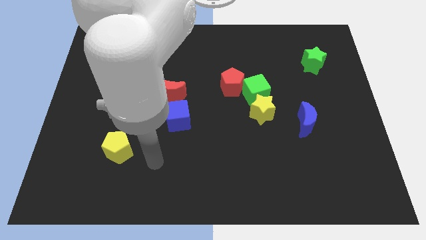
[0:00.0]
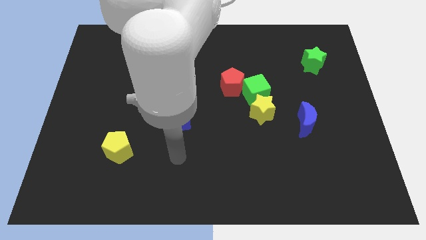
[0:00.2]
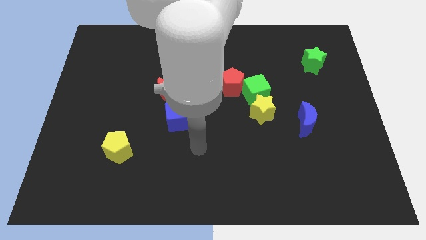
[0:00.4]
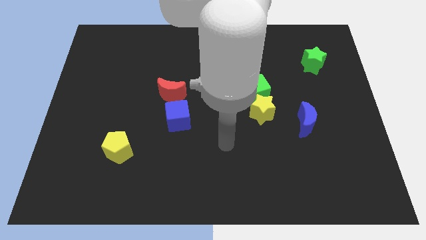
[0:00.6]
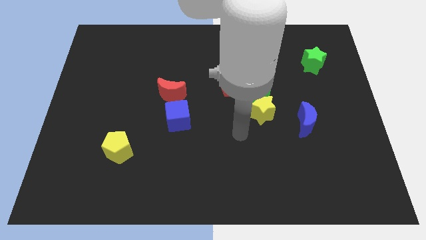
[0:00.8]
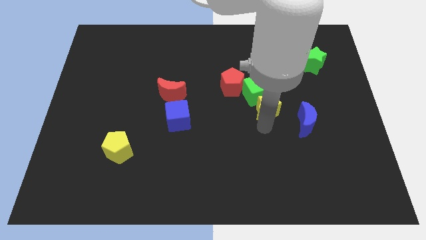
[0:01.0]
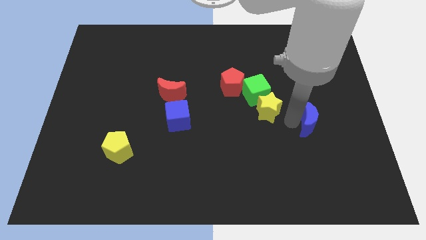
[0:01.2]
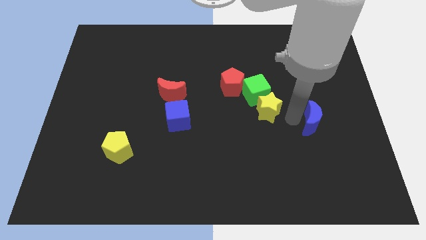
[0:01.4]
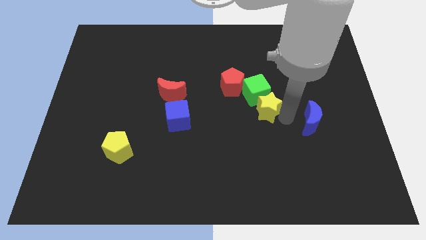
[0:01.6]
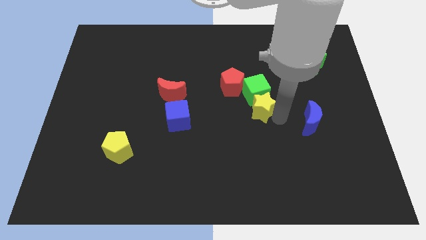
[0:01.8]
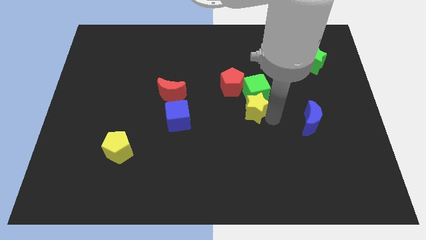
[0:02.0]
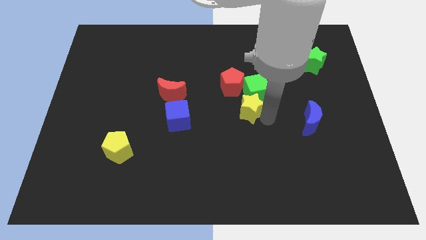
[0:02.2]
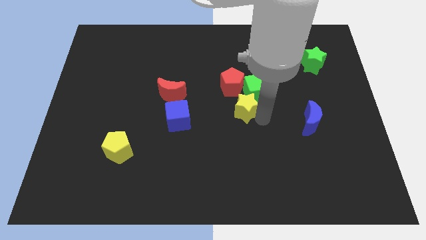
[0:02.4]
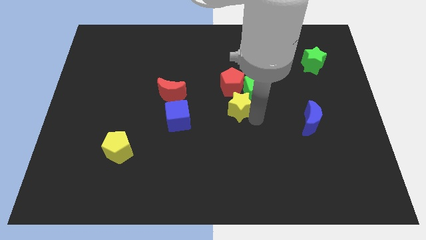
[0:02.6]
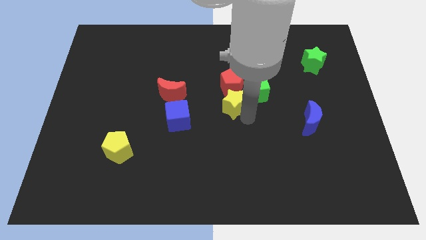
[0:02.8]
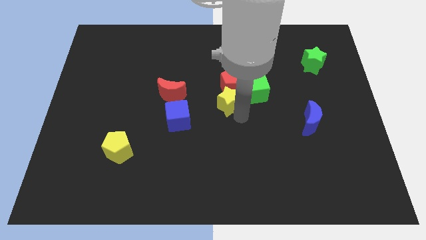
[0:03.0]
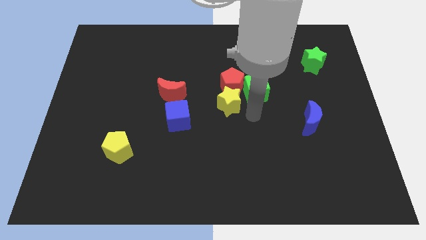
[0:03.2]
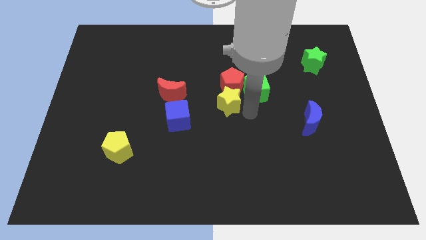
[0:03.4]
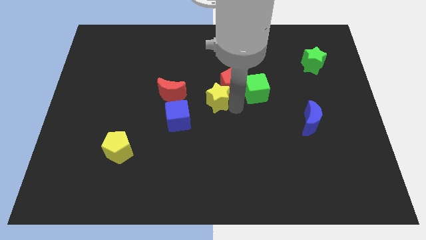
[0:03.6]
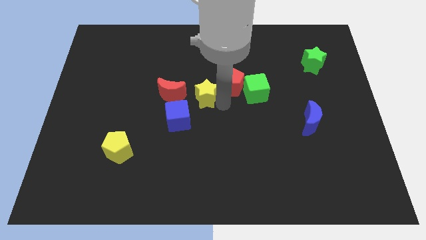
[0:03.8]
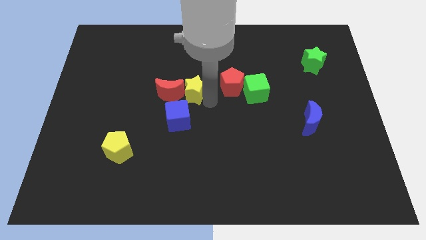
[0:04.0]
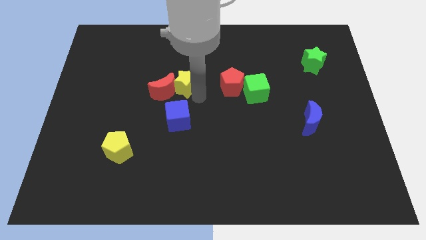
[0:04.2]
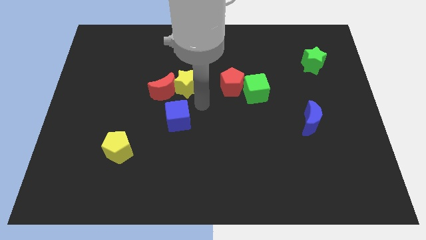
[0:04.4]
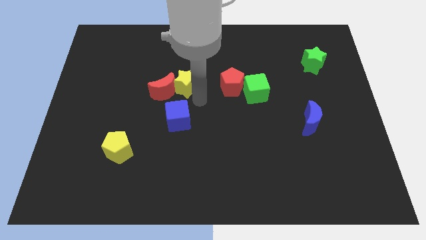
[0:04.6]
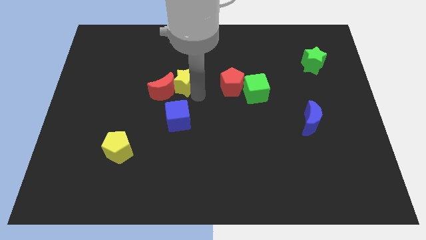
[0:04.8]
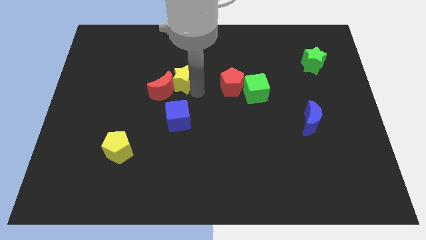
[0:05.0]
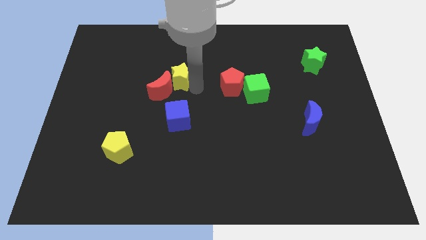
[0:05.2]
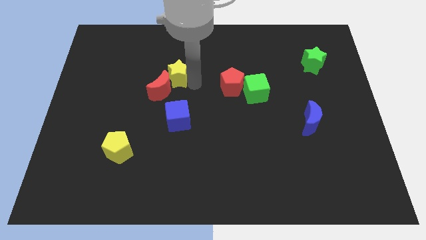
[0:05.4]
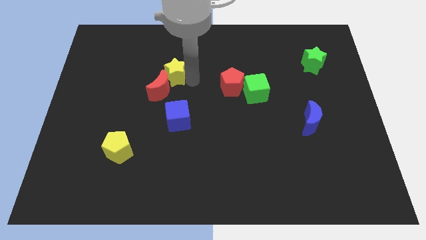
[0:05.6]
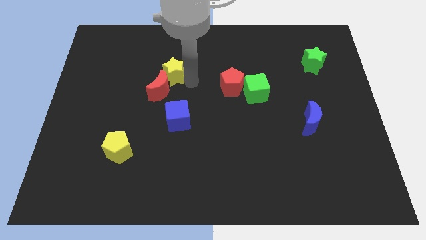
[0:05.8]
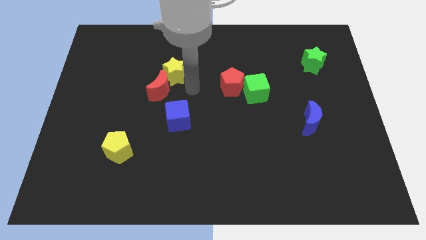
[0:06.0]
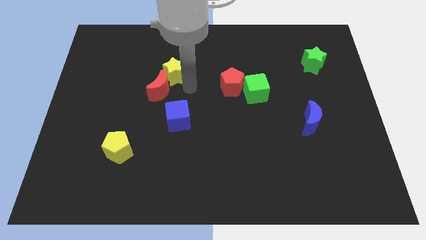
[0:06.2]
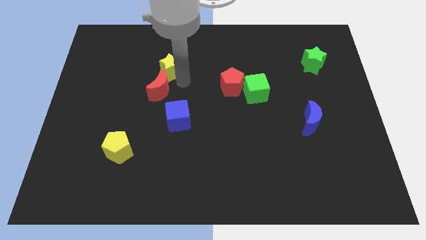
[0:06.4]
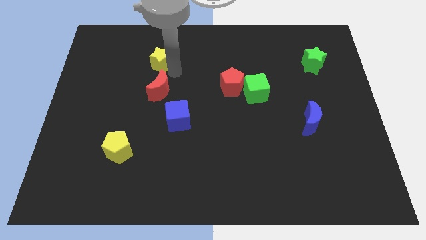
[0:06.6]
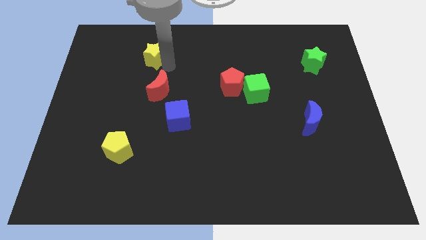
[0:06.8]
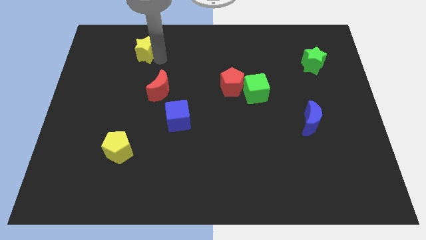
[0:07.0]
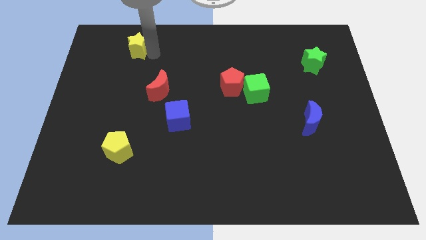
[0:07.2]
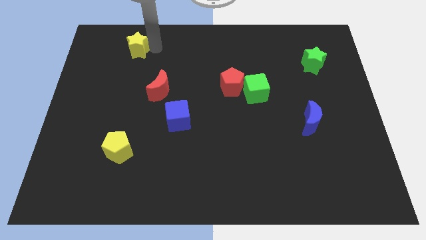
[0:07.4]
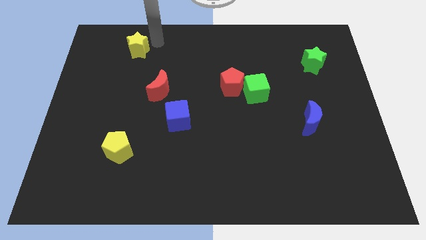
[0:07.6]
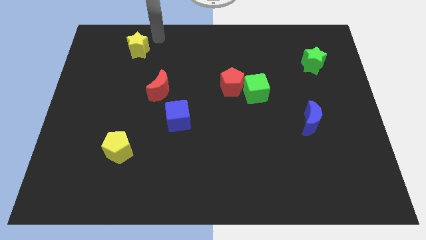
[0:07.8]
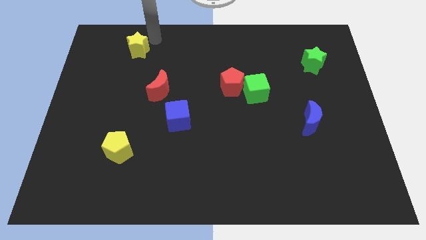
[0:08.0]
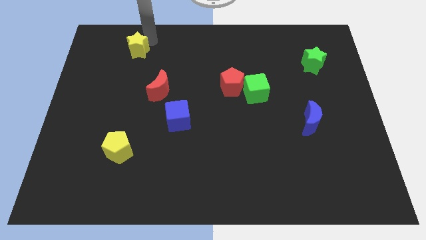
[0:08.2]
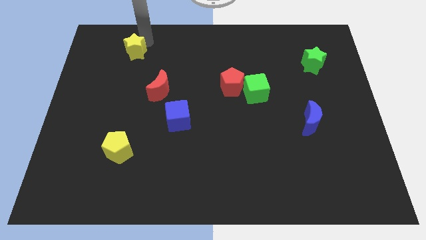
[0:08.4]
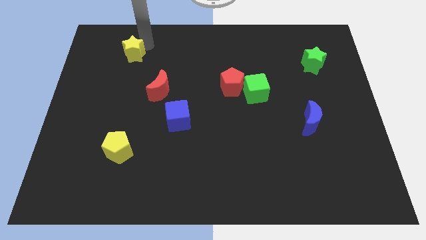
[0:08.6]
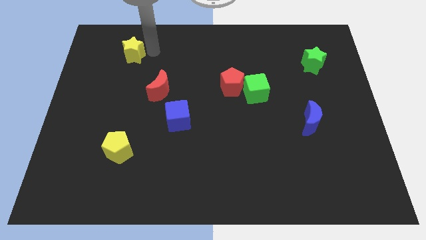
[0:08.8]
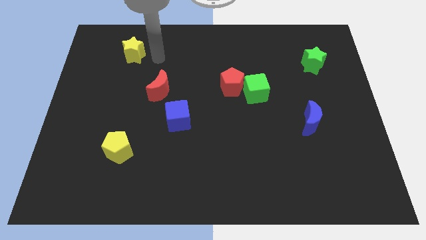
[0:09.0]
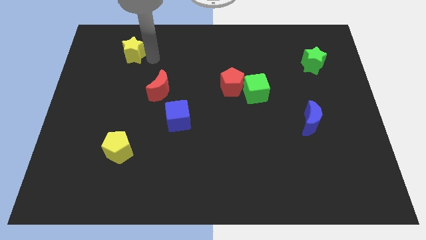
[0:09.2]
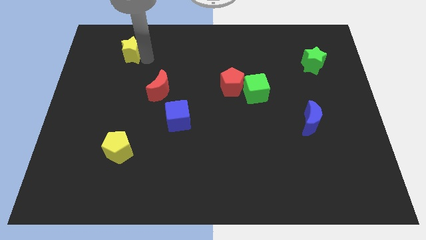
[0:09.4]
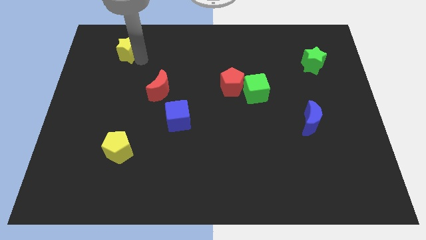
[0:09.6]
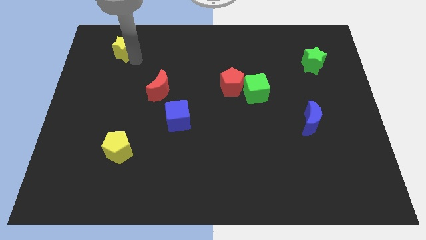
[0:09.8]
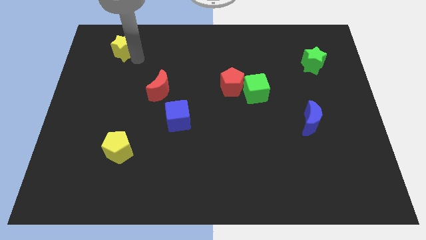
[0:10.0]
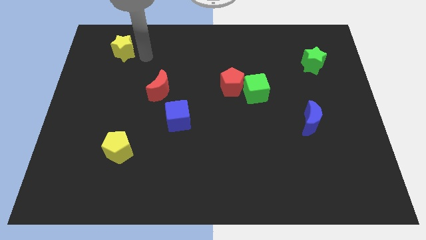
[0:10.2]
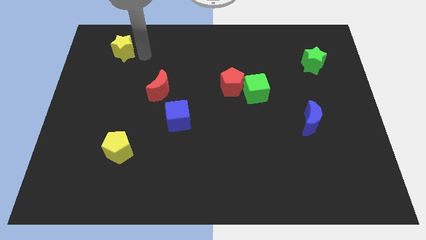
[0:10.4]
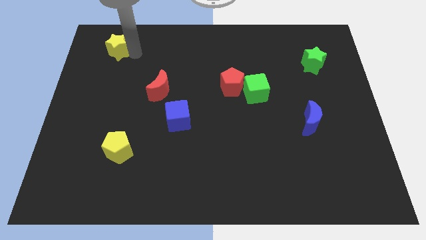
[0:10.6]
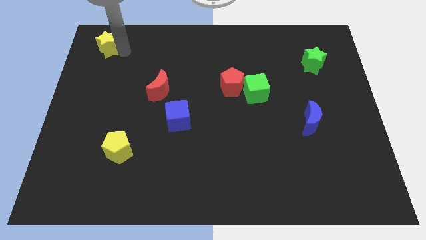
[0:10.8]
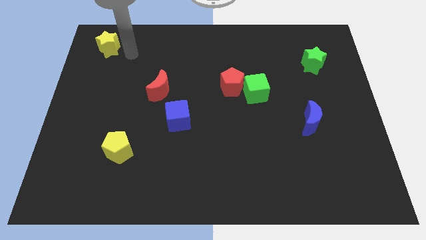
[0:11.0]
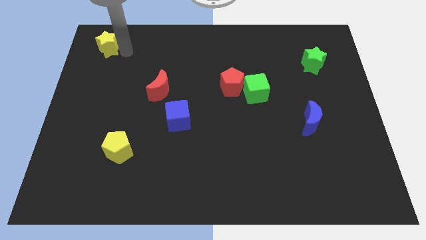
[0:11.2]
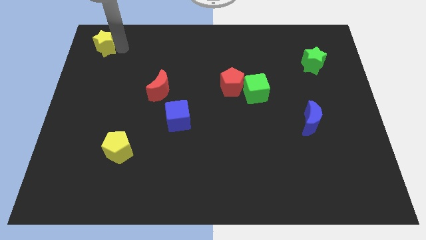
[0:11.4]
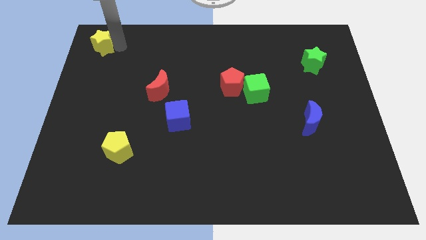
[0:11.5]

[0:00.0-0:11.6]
slide the yellow star to the upper left corner

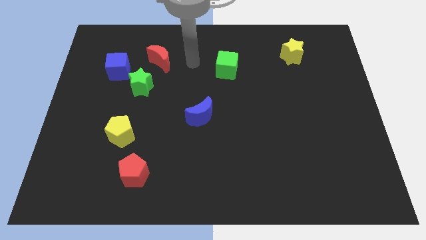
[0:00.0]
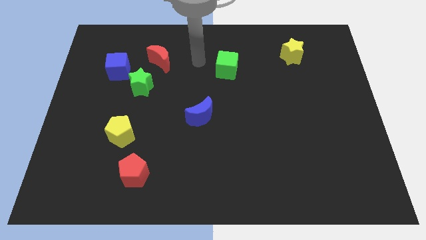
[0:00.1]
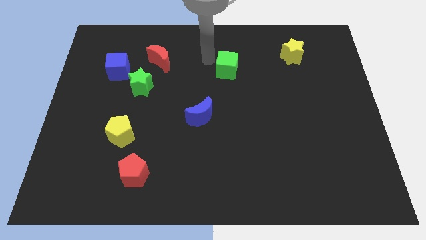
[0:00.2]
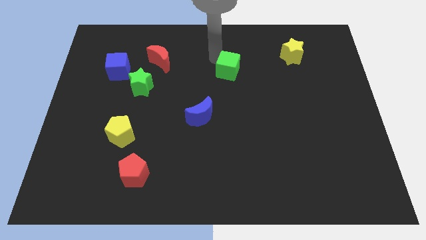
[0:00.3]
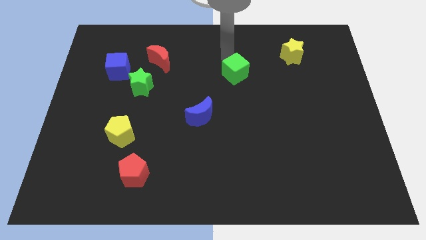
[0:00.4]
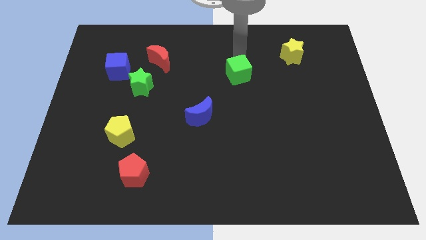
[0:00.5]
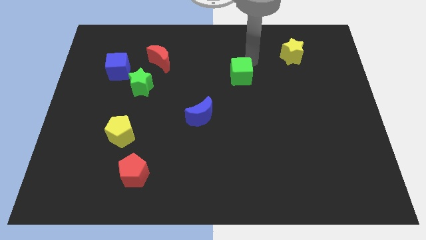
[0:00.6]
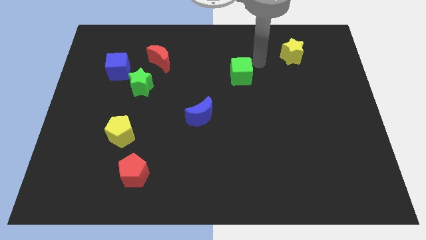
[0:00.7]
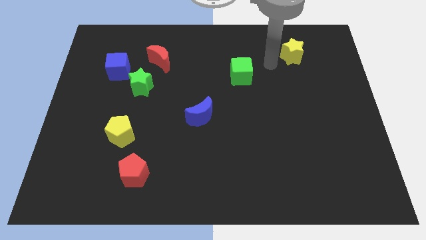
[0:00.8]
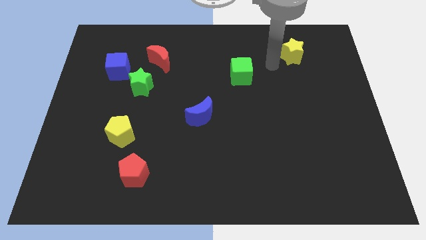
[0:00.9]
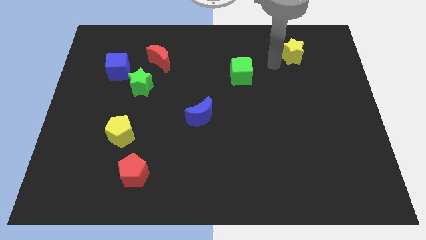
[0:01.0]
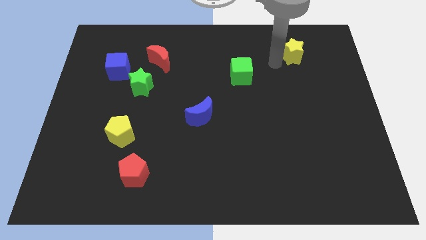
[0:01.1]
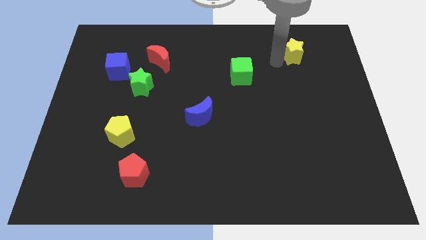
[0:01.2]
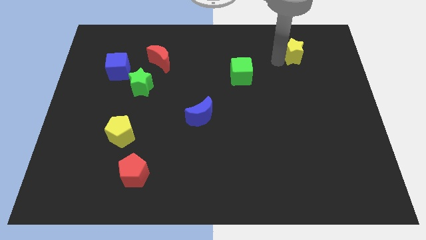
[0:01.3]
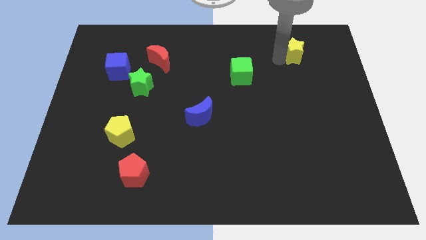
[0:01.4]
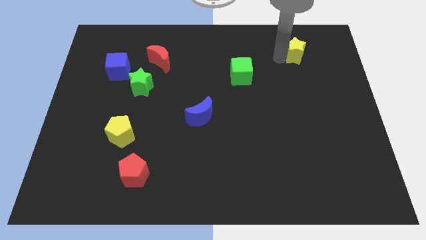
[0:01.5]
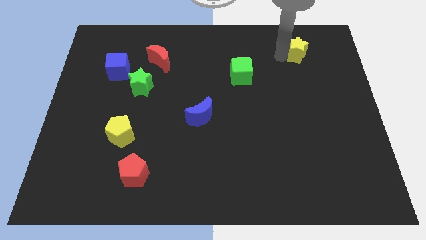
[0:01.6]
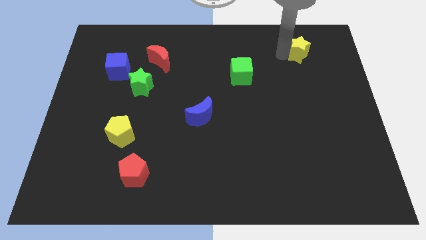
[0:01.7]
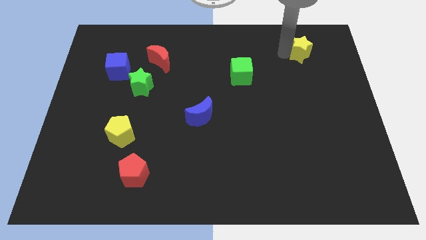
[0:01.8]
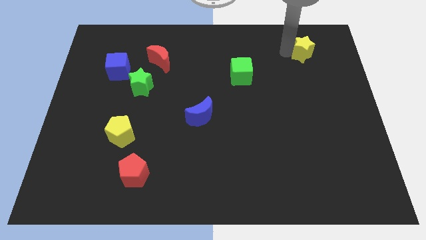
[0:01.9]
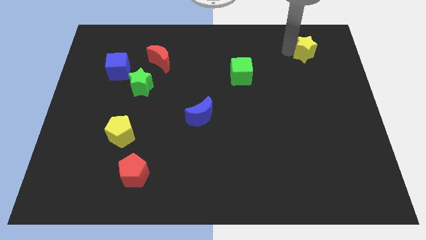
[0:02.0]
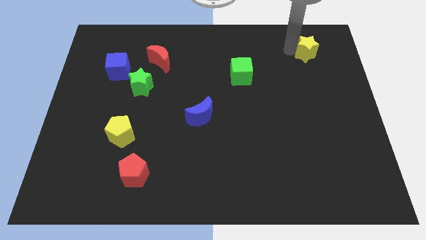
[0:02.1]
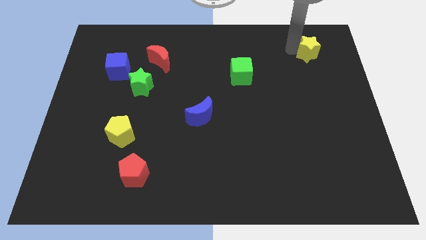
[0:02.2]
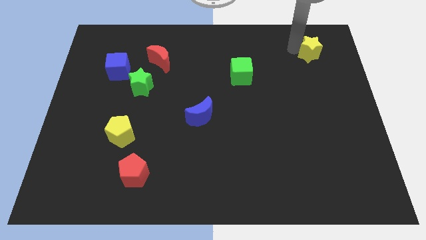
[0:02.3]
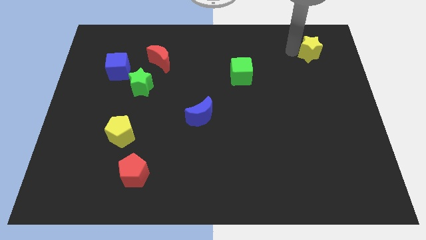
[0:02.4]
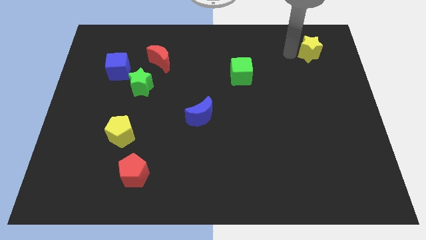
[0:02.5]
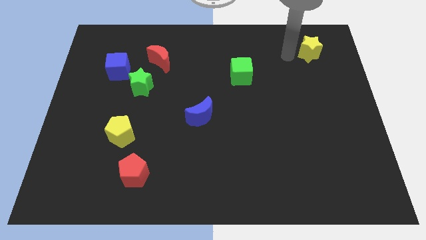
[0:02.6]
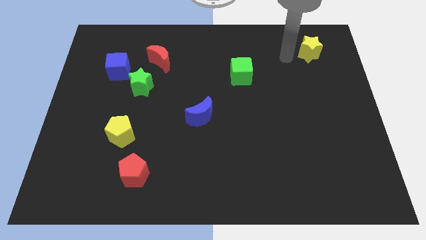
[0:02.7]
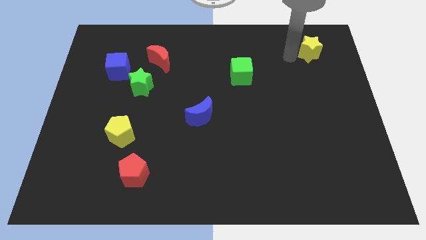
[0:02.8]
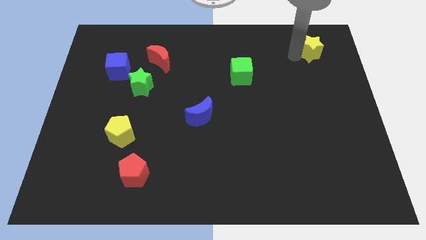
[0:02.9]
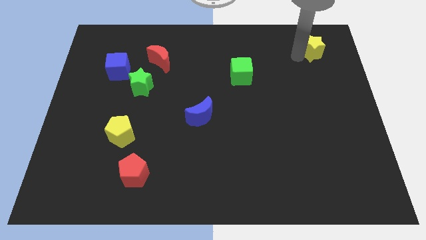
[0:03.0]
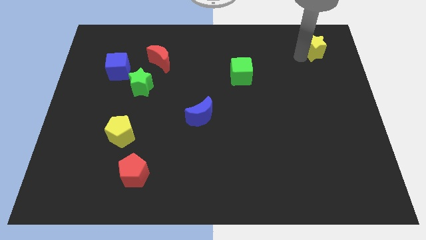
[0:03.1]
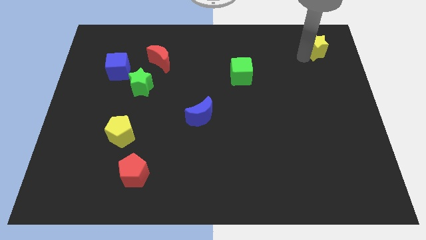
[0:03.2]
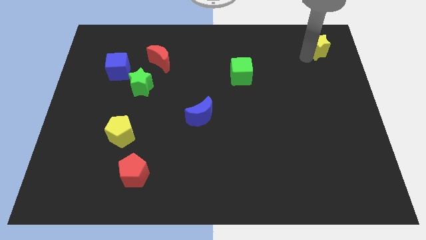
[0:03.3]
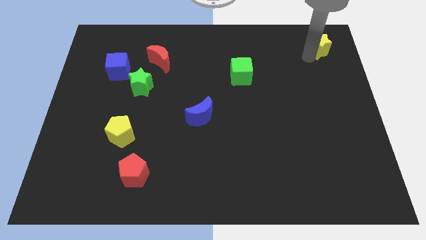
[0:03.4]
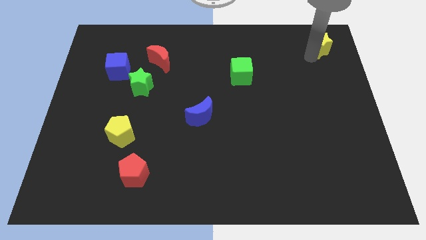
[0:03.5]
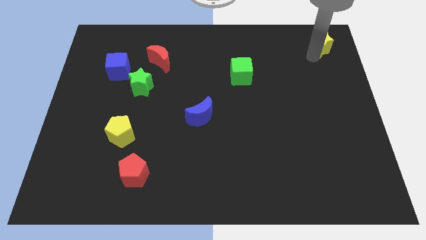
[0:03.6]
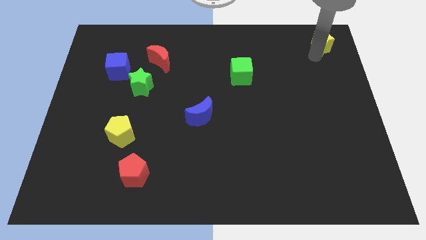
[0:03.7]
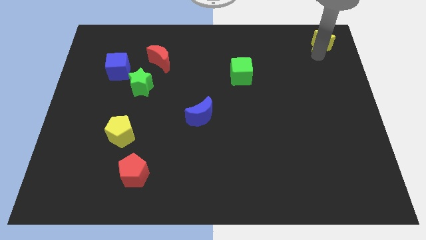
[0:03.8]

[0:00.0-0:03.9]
move the yellow star to the top right
